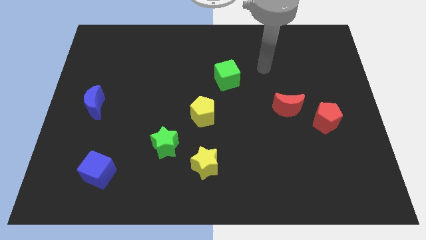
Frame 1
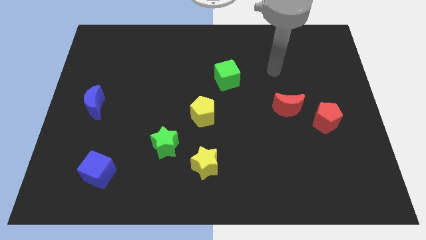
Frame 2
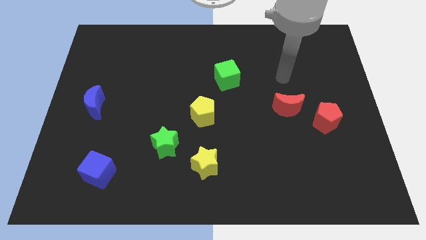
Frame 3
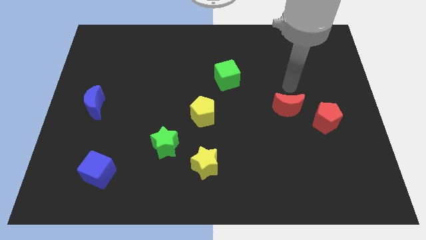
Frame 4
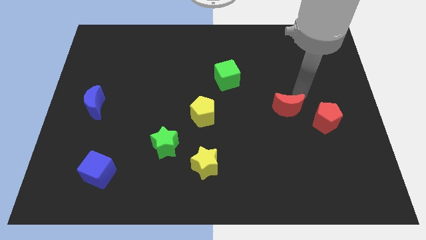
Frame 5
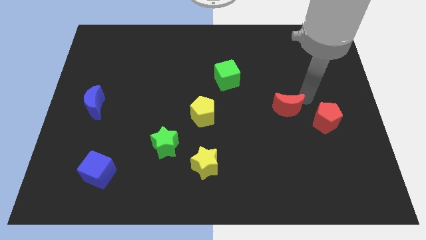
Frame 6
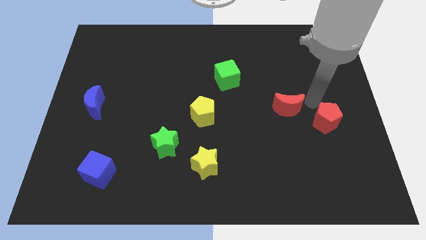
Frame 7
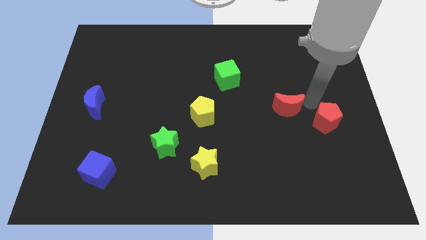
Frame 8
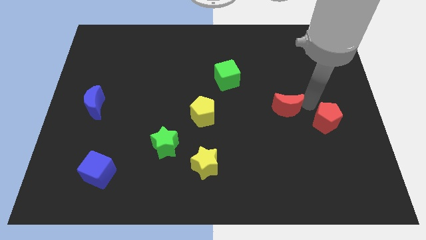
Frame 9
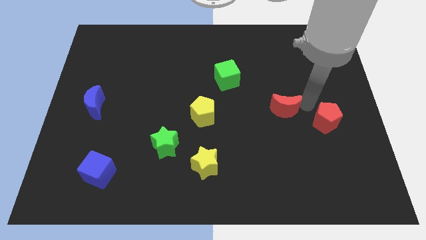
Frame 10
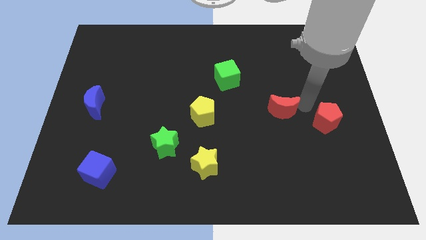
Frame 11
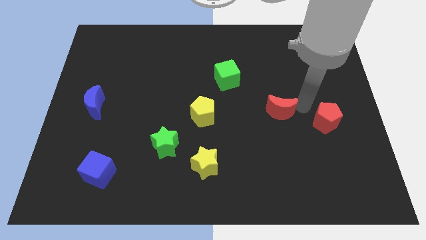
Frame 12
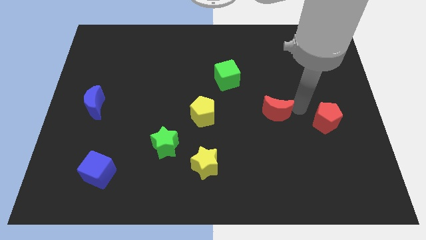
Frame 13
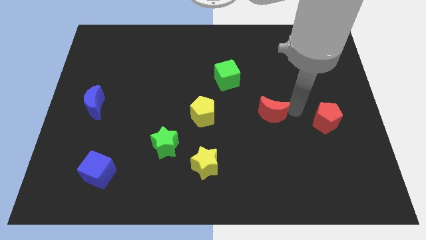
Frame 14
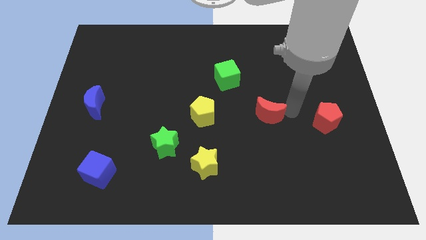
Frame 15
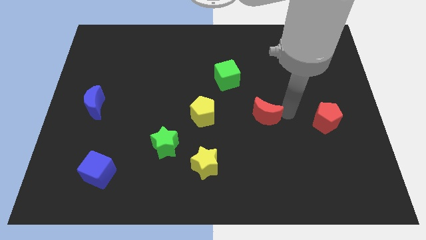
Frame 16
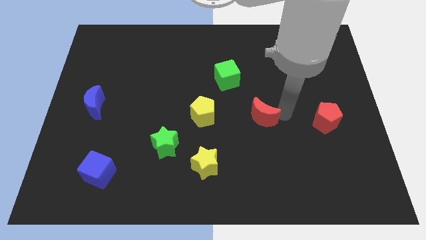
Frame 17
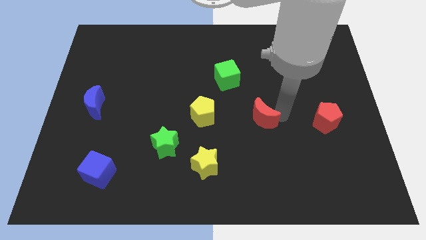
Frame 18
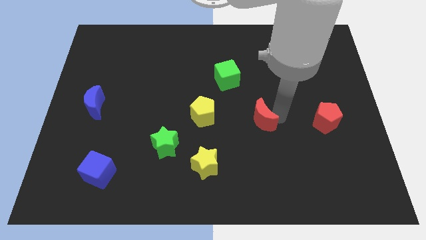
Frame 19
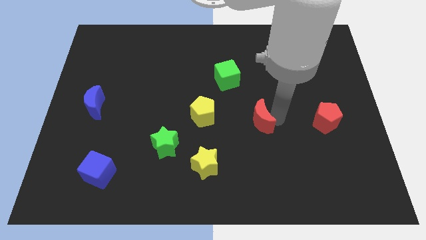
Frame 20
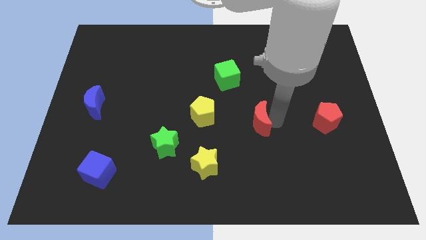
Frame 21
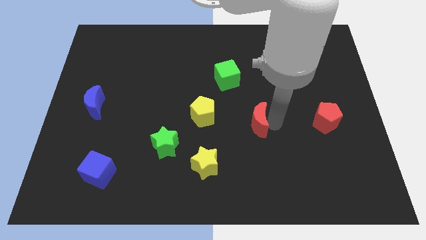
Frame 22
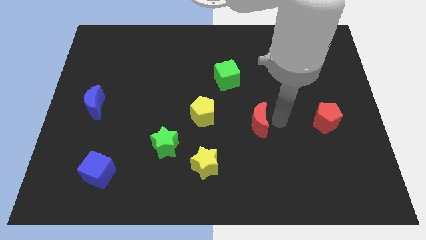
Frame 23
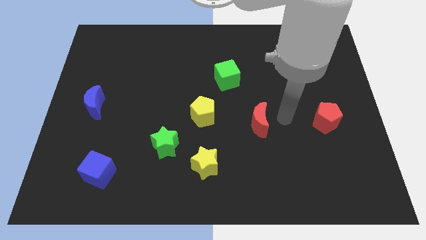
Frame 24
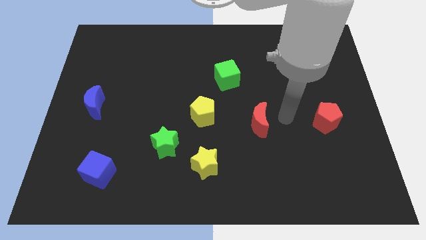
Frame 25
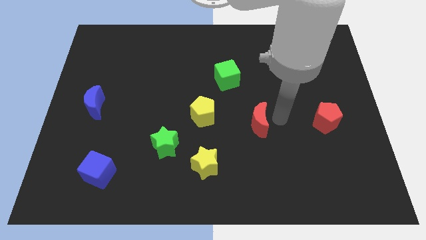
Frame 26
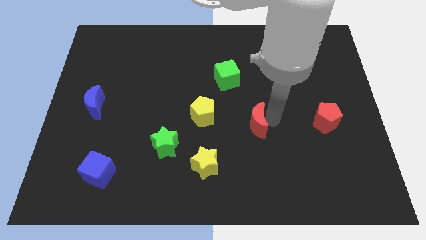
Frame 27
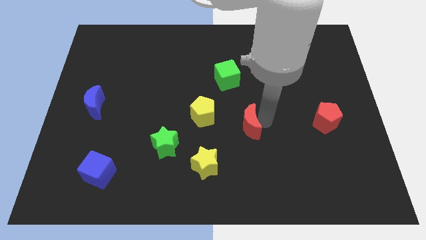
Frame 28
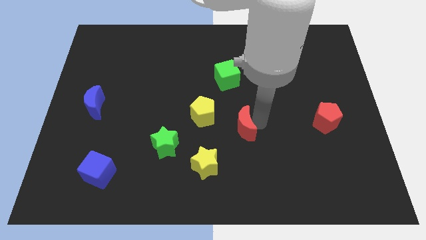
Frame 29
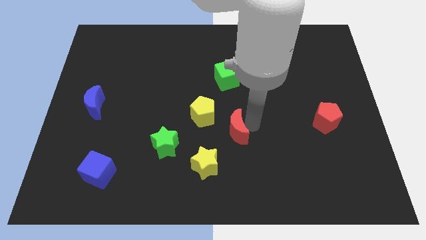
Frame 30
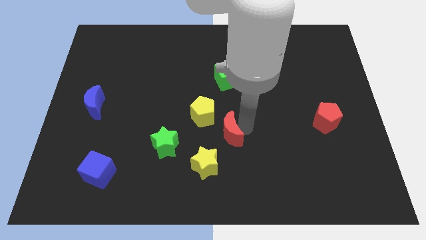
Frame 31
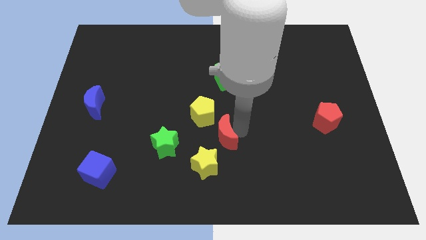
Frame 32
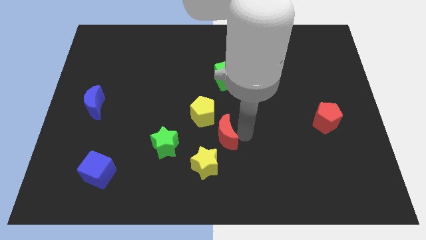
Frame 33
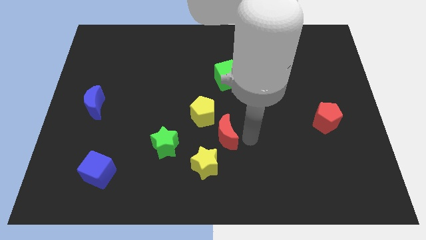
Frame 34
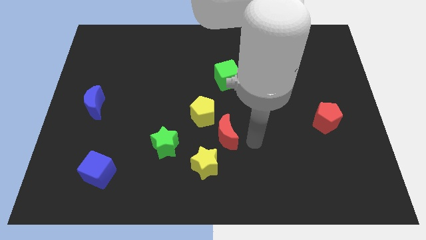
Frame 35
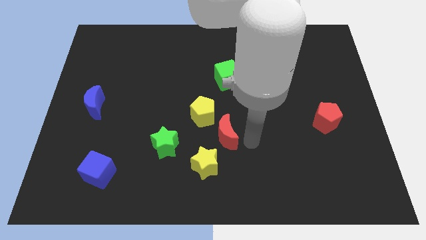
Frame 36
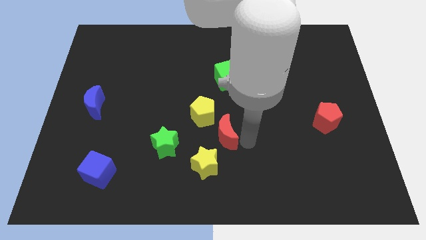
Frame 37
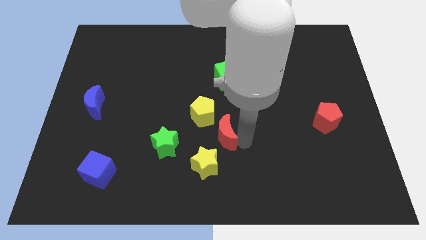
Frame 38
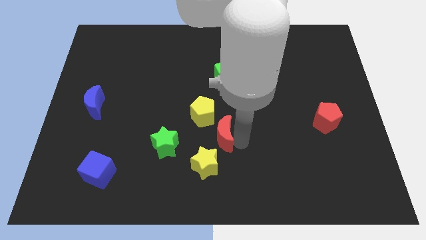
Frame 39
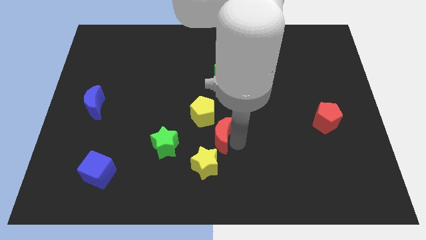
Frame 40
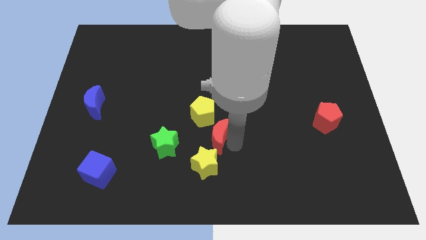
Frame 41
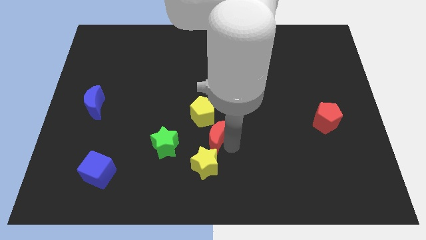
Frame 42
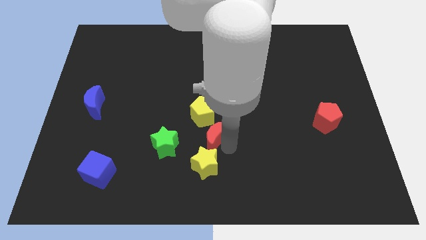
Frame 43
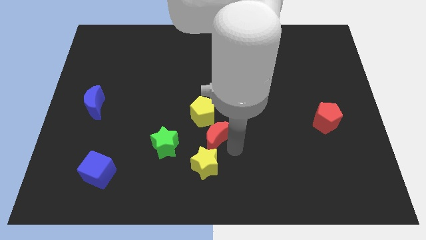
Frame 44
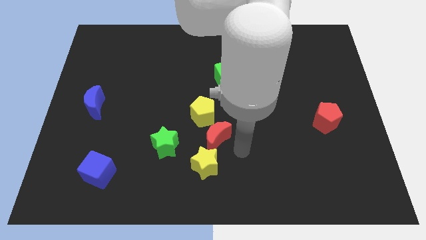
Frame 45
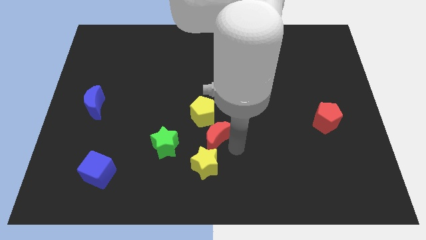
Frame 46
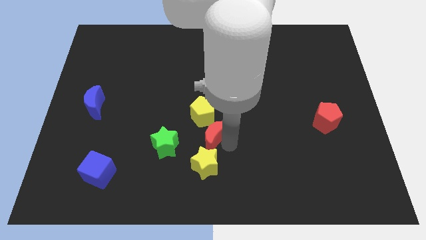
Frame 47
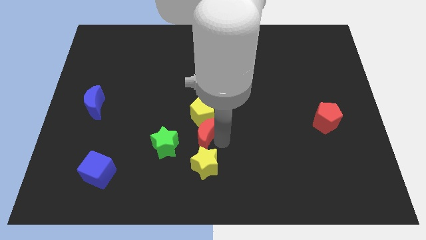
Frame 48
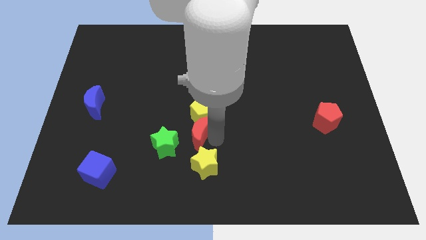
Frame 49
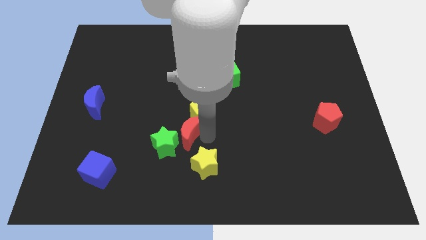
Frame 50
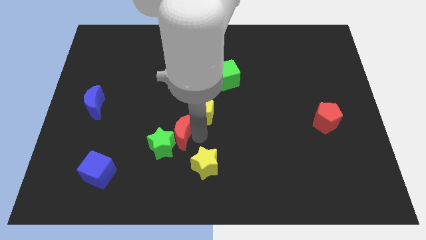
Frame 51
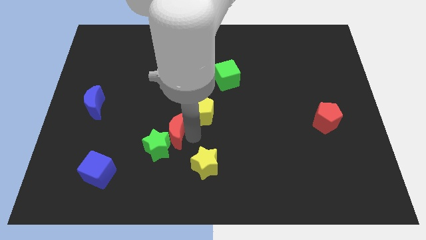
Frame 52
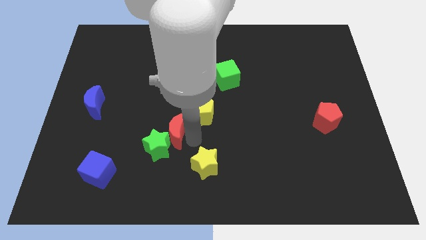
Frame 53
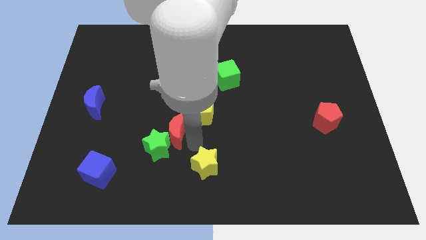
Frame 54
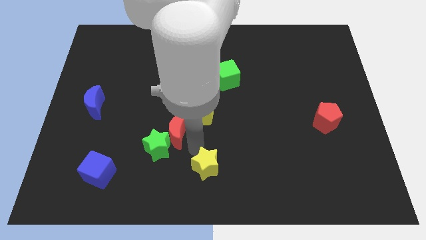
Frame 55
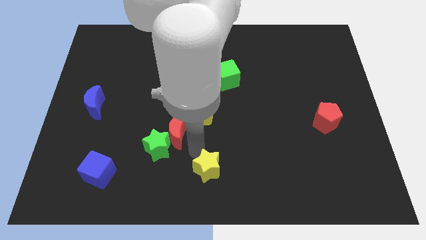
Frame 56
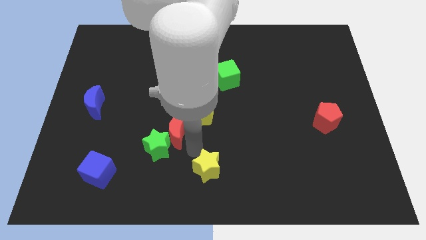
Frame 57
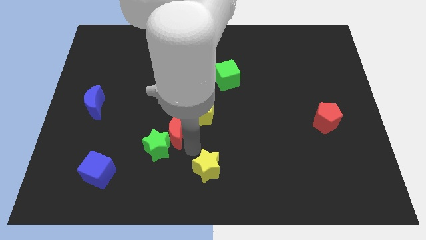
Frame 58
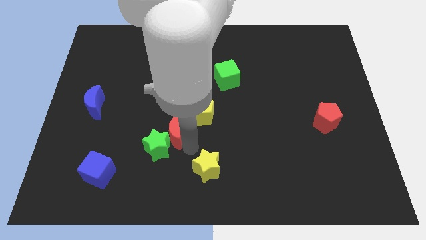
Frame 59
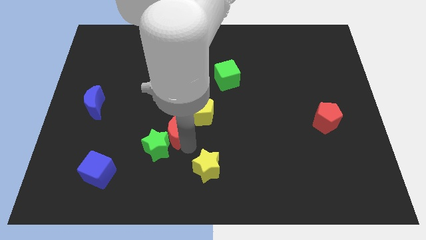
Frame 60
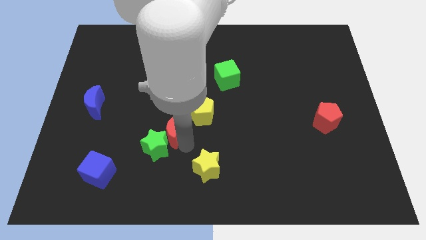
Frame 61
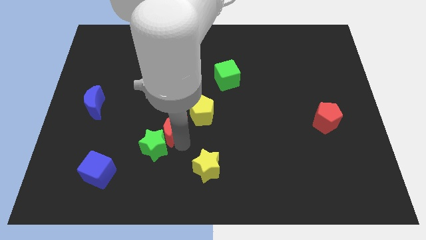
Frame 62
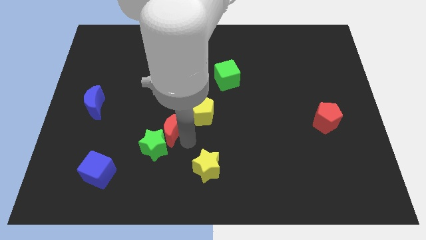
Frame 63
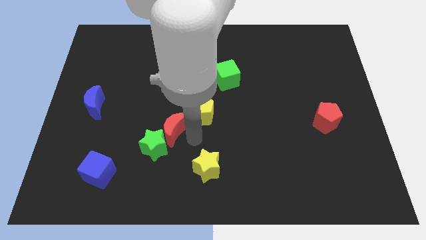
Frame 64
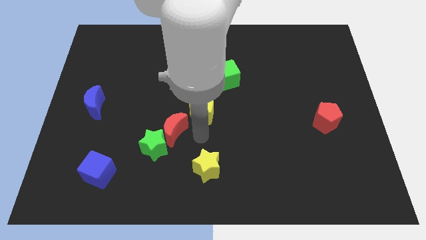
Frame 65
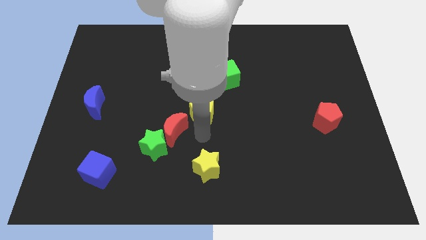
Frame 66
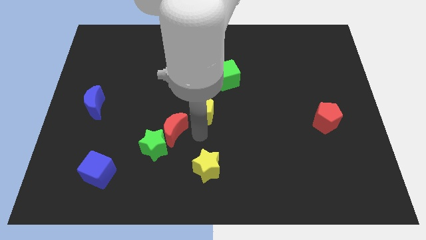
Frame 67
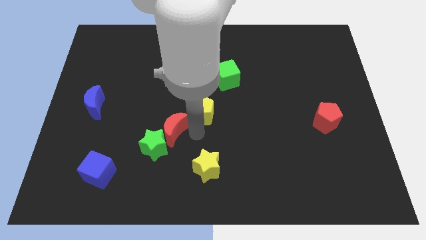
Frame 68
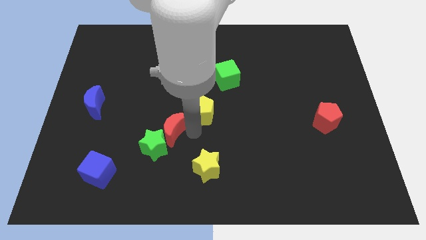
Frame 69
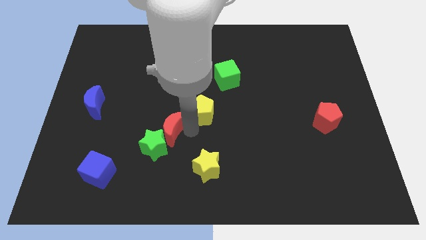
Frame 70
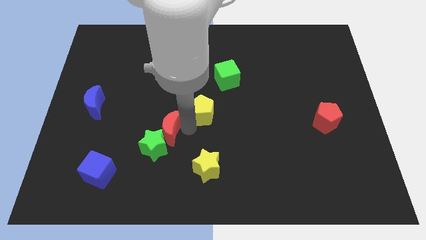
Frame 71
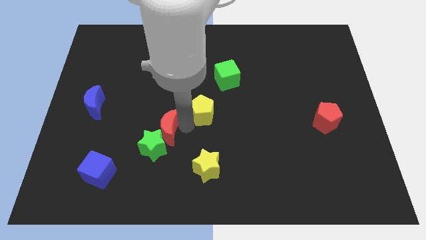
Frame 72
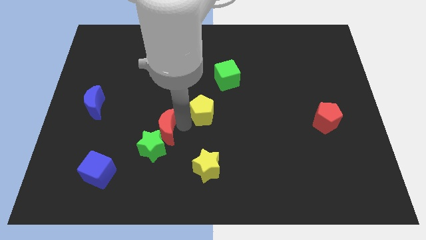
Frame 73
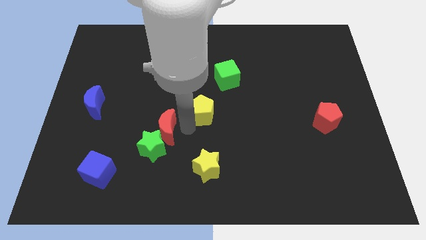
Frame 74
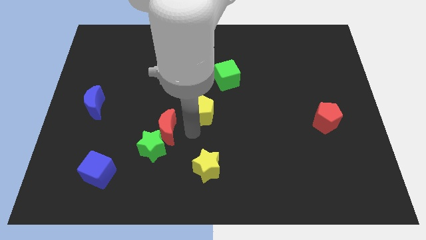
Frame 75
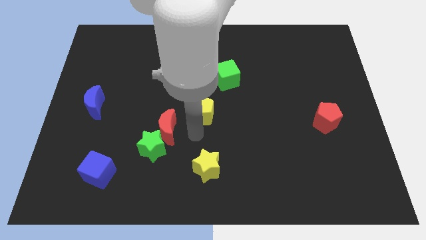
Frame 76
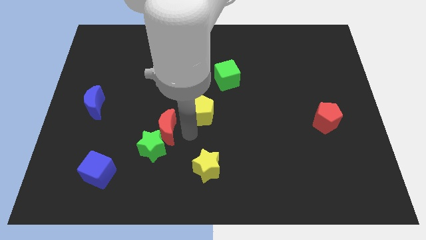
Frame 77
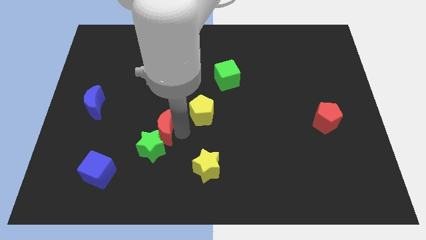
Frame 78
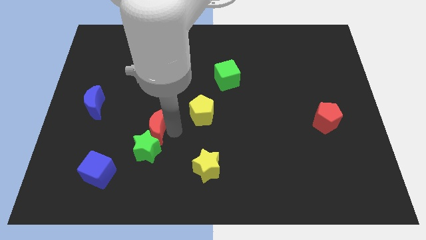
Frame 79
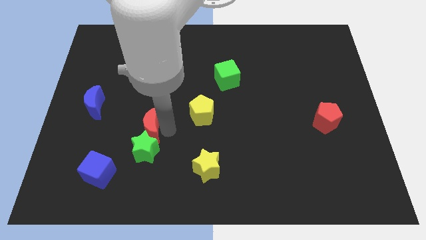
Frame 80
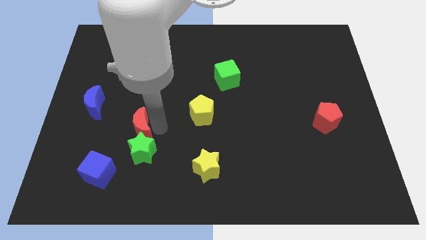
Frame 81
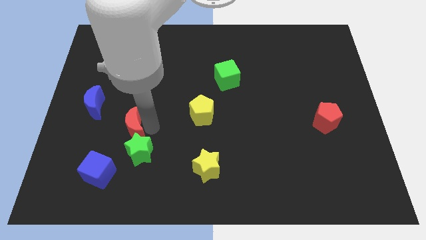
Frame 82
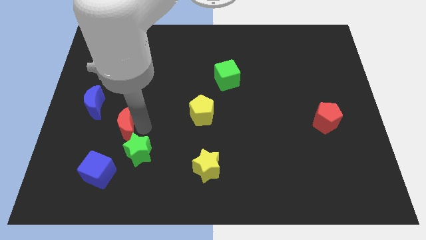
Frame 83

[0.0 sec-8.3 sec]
put the red moon to the top side of the blue cube
